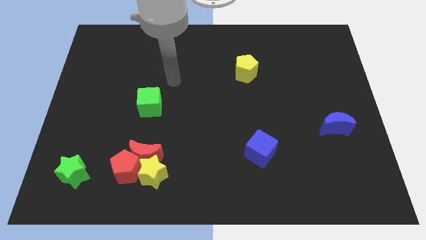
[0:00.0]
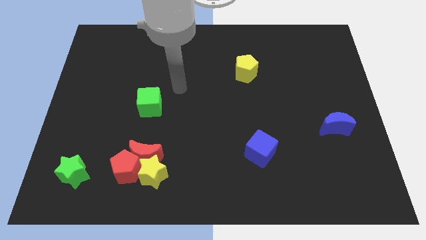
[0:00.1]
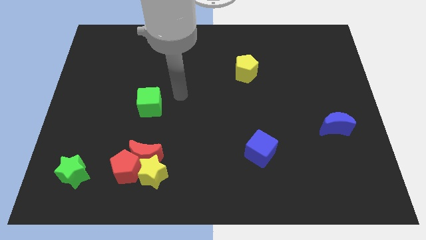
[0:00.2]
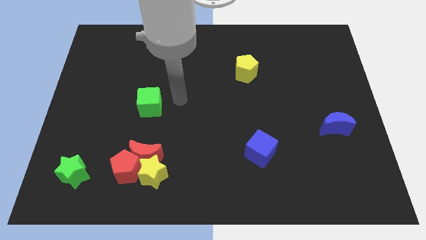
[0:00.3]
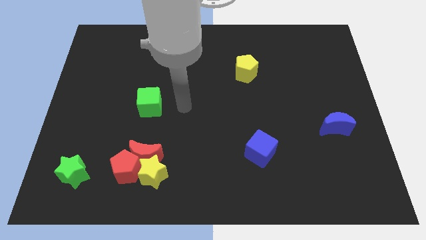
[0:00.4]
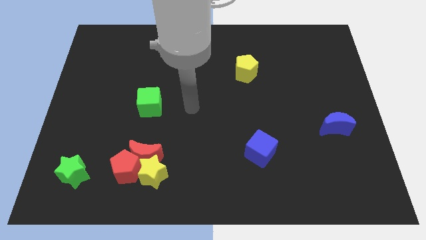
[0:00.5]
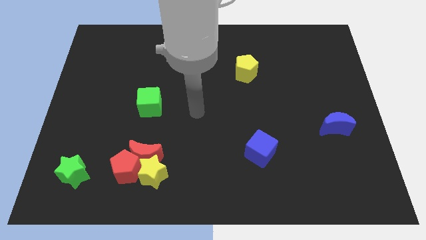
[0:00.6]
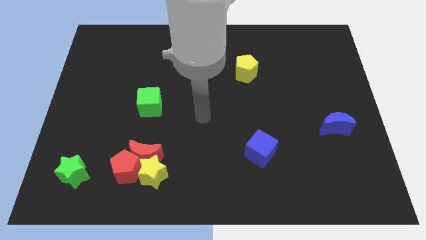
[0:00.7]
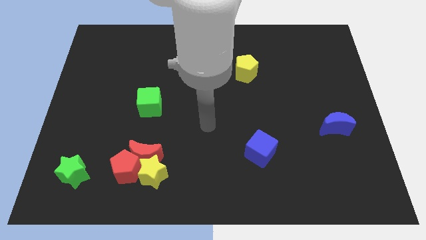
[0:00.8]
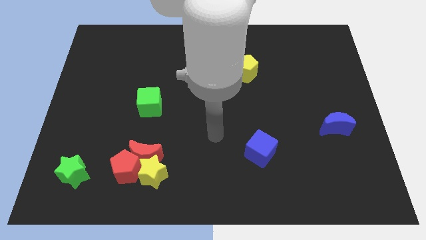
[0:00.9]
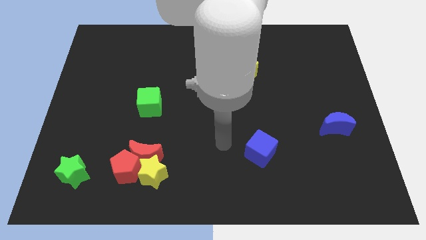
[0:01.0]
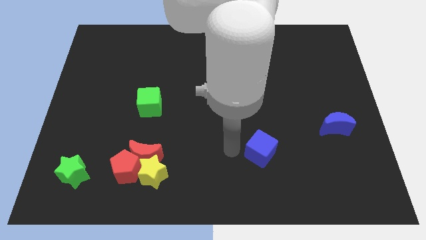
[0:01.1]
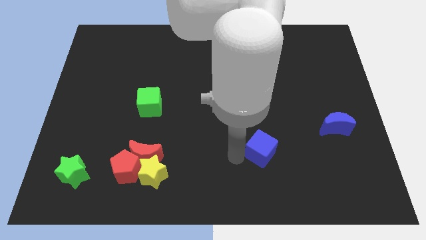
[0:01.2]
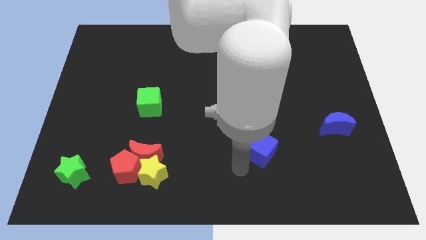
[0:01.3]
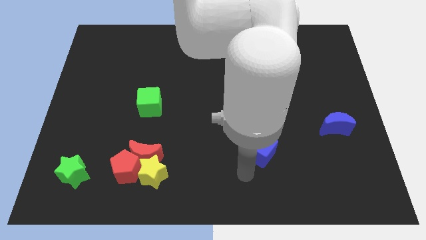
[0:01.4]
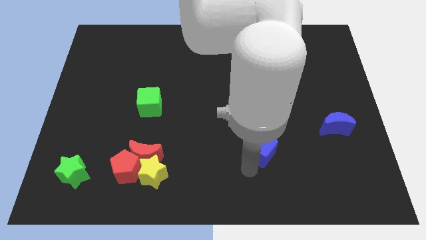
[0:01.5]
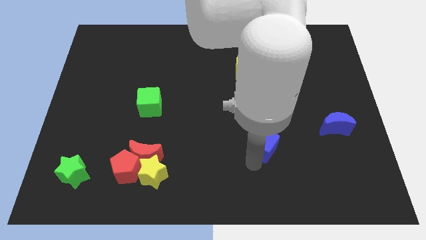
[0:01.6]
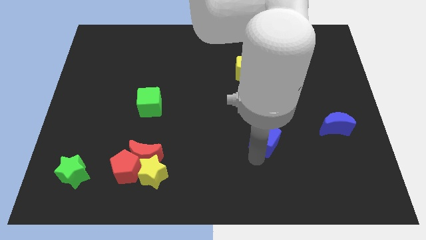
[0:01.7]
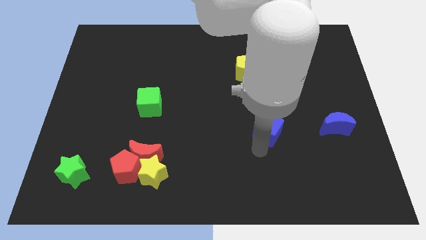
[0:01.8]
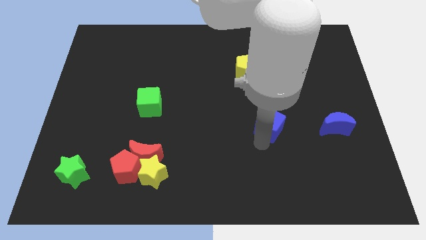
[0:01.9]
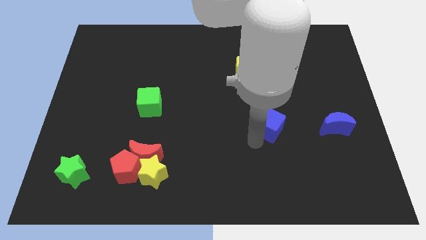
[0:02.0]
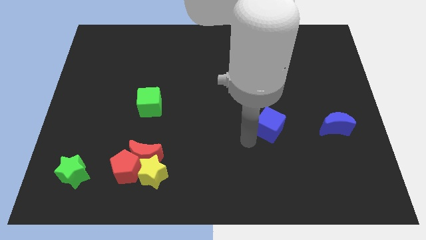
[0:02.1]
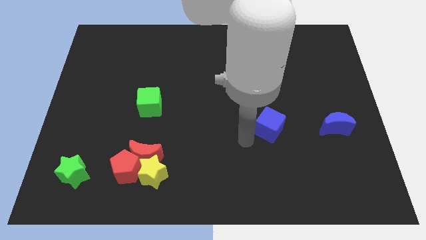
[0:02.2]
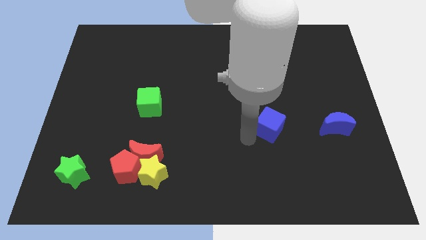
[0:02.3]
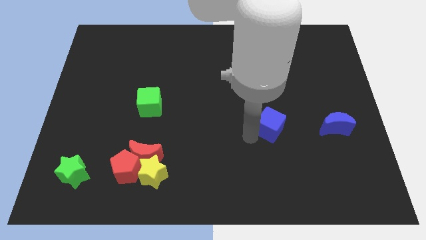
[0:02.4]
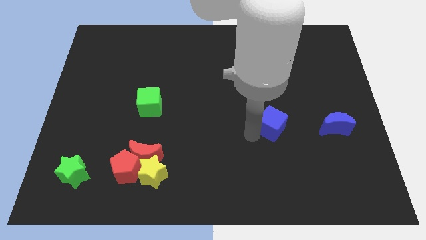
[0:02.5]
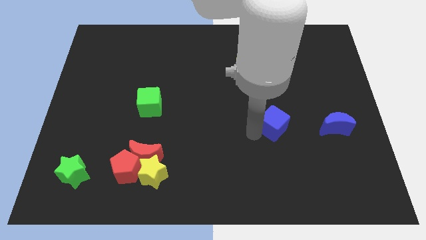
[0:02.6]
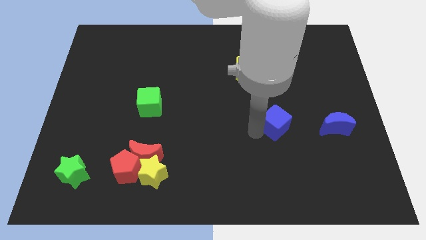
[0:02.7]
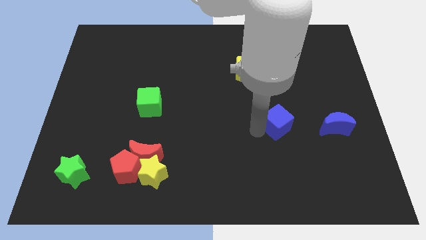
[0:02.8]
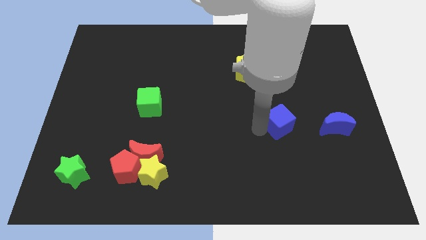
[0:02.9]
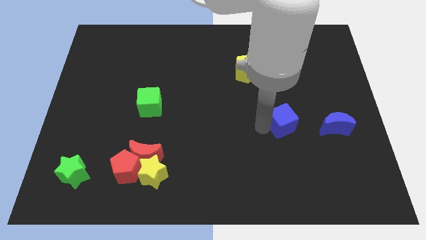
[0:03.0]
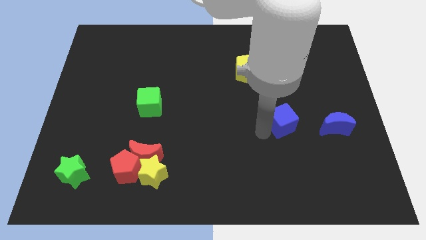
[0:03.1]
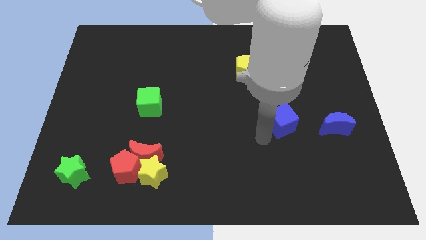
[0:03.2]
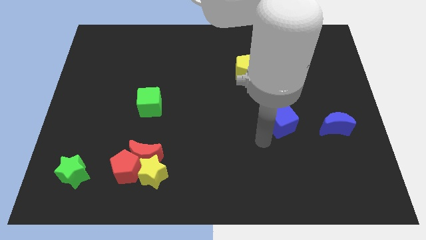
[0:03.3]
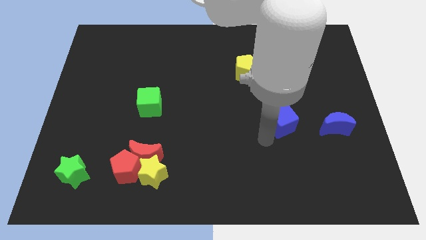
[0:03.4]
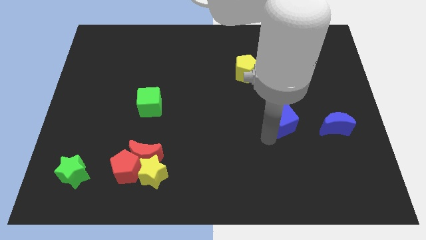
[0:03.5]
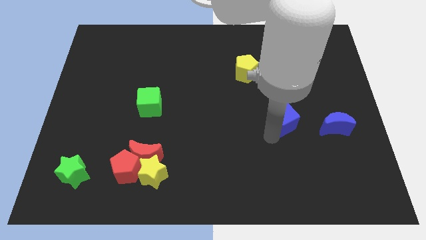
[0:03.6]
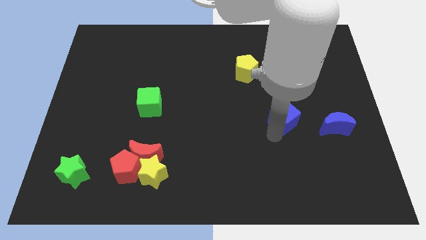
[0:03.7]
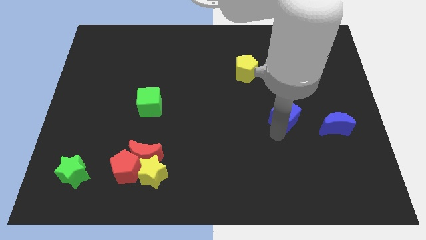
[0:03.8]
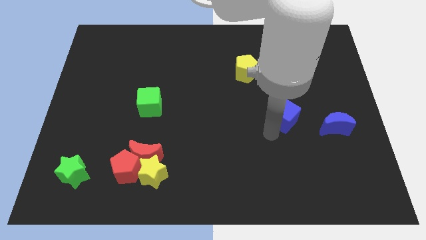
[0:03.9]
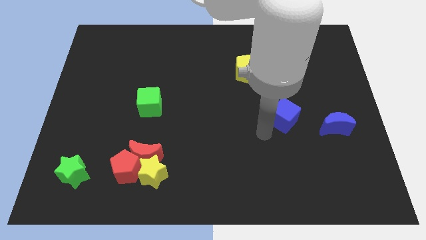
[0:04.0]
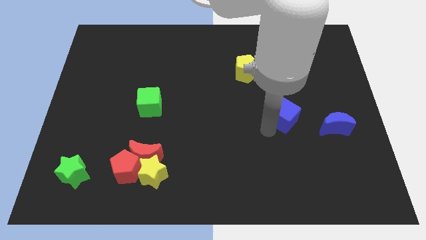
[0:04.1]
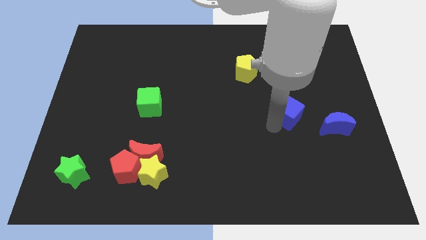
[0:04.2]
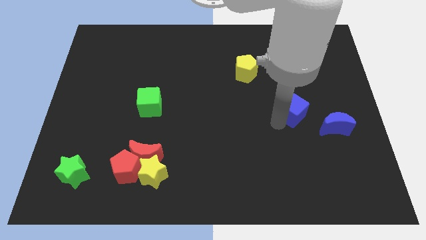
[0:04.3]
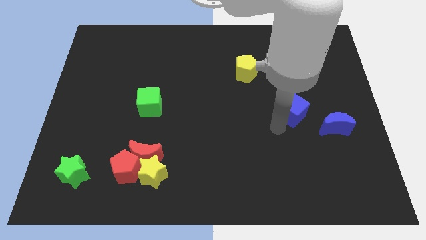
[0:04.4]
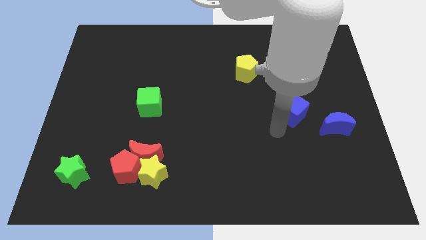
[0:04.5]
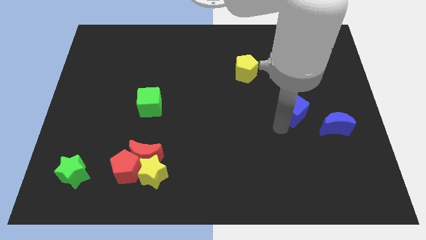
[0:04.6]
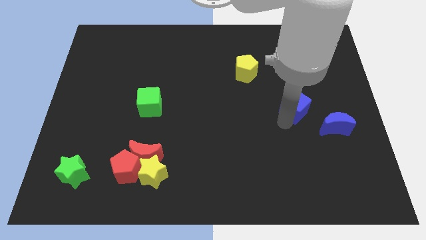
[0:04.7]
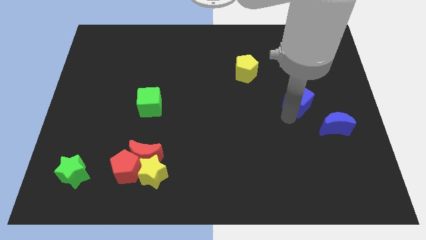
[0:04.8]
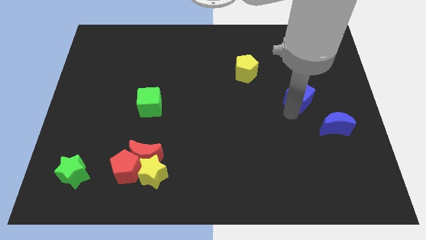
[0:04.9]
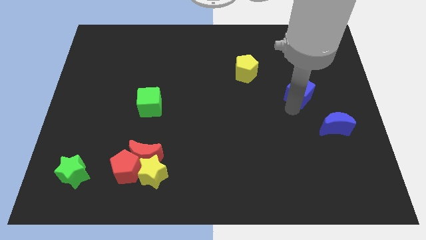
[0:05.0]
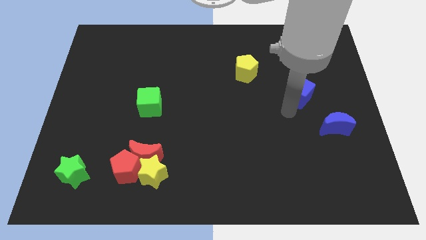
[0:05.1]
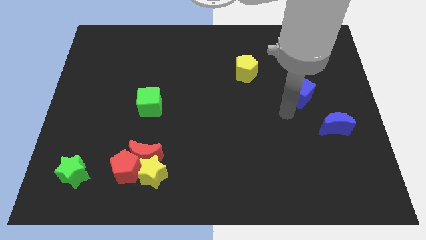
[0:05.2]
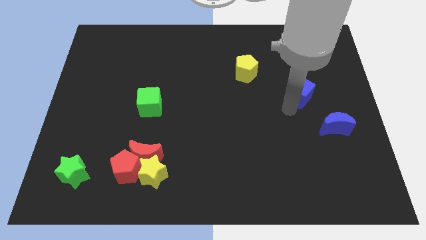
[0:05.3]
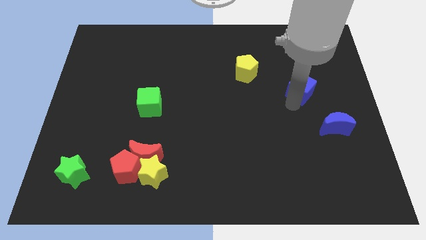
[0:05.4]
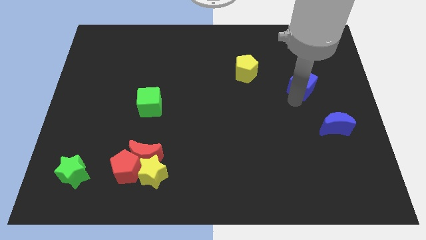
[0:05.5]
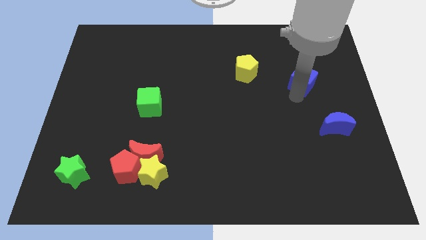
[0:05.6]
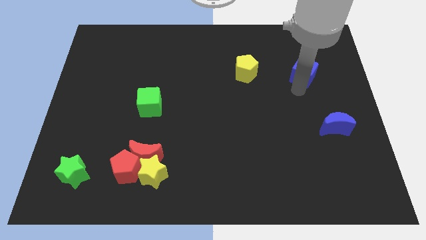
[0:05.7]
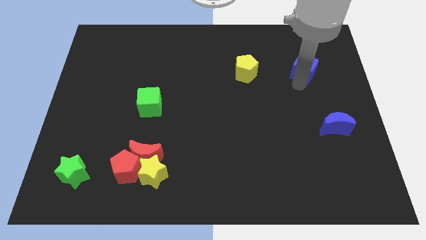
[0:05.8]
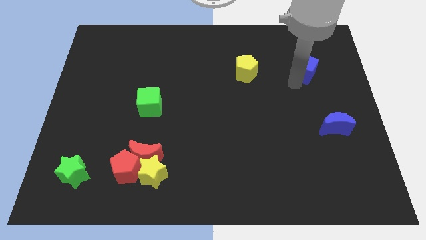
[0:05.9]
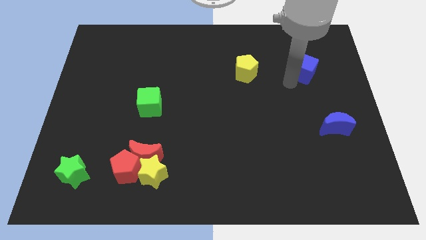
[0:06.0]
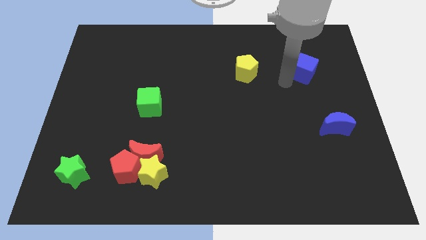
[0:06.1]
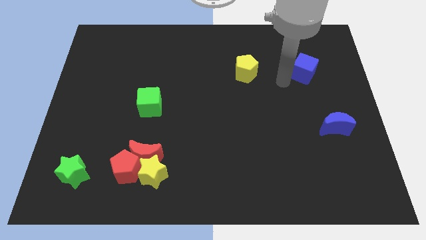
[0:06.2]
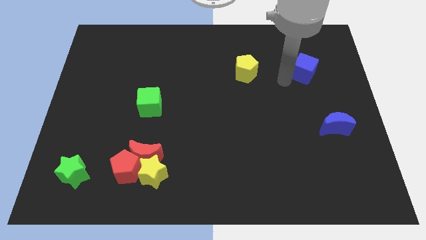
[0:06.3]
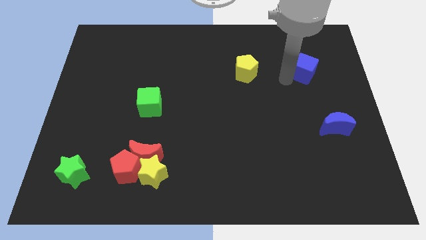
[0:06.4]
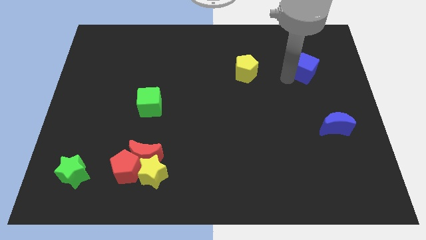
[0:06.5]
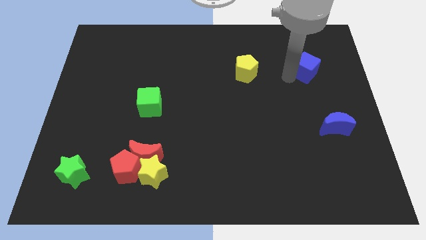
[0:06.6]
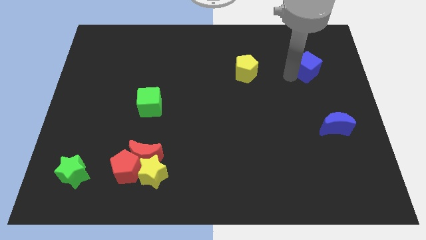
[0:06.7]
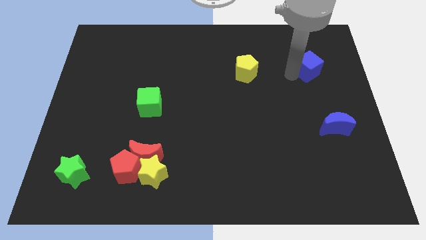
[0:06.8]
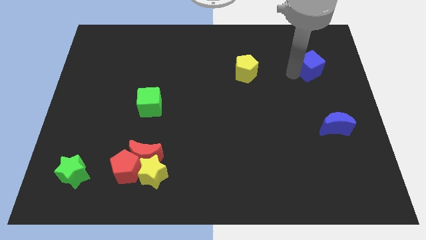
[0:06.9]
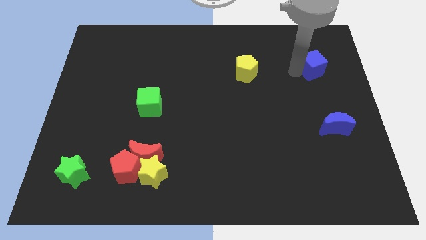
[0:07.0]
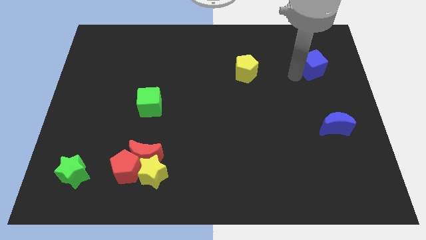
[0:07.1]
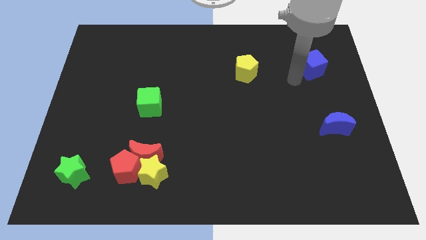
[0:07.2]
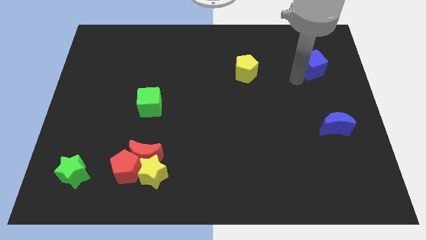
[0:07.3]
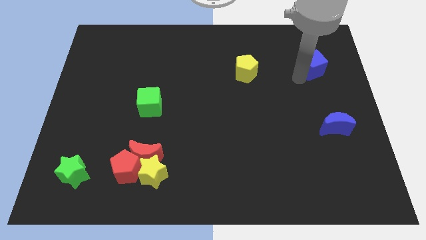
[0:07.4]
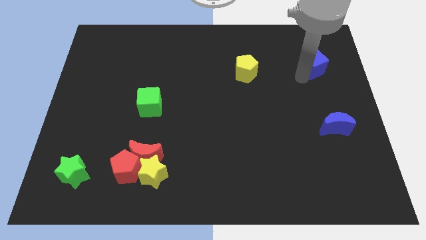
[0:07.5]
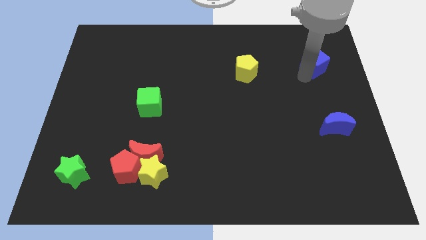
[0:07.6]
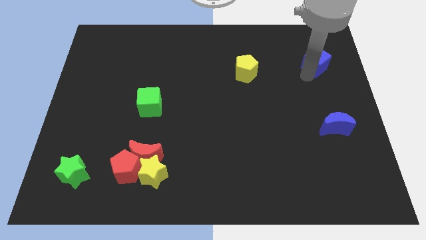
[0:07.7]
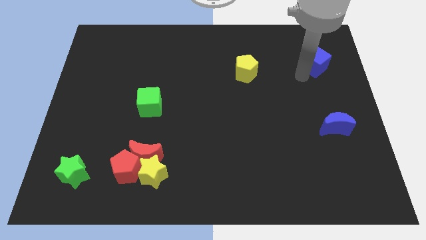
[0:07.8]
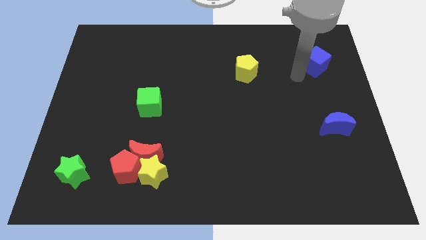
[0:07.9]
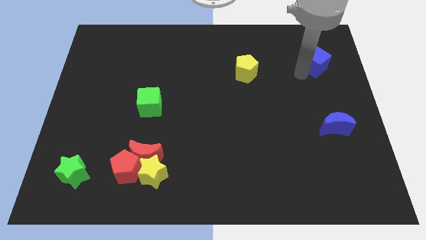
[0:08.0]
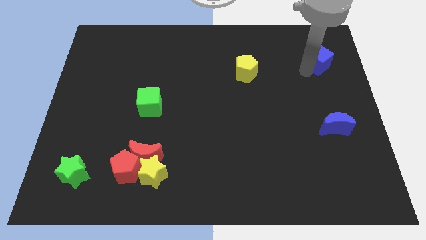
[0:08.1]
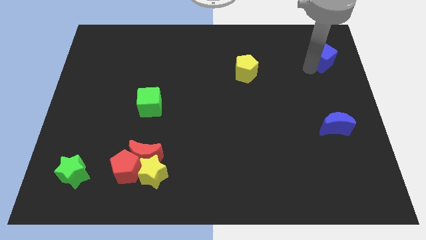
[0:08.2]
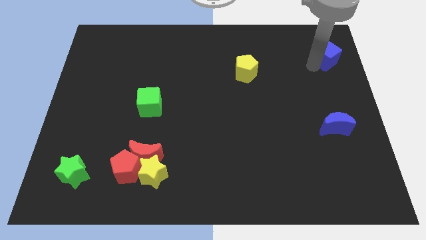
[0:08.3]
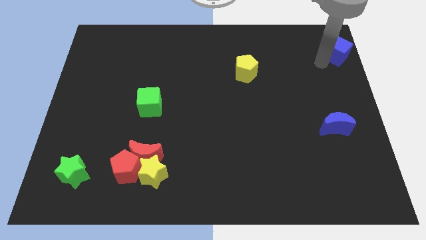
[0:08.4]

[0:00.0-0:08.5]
move the blue cube to the top right corner
